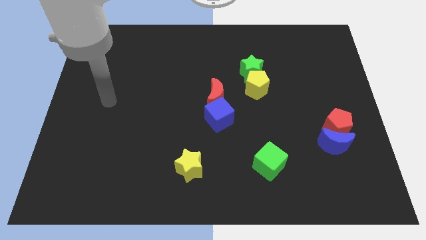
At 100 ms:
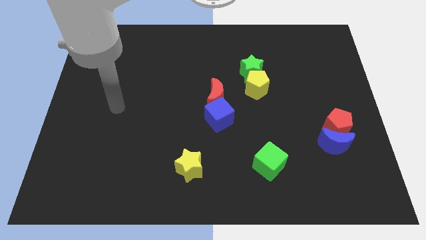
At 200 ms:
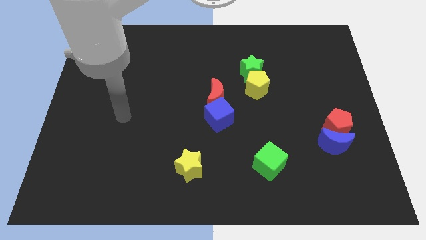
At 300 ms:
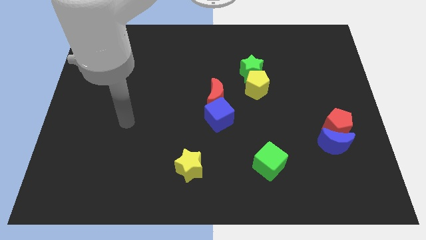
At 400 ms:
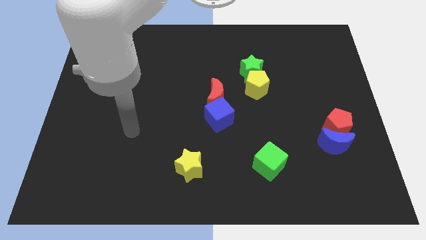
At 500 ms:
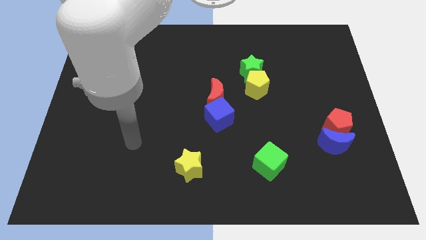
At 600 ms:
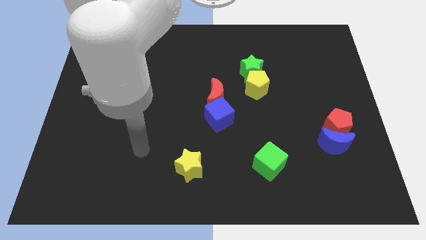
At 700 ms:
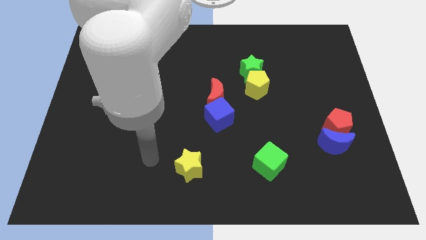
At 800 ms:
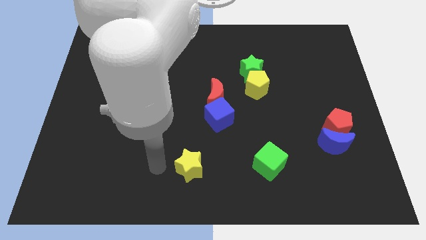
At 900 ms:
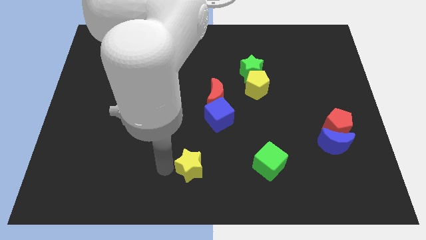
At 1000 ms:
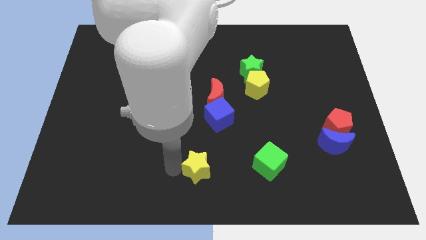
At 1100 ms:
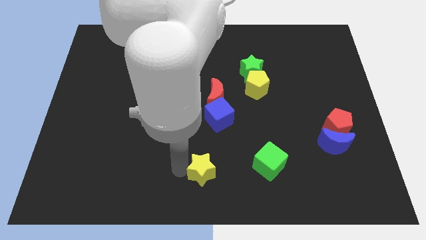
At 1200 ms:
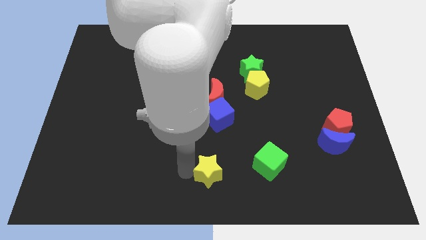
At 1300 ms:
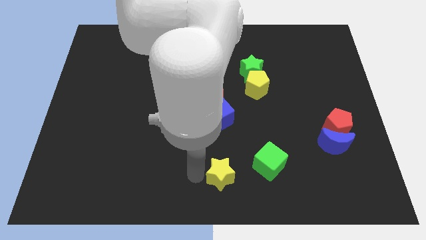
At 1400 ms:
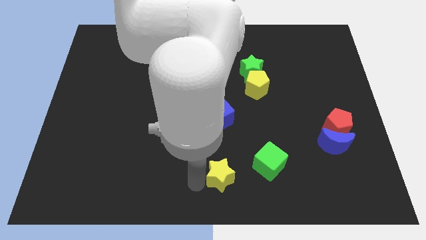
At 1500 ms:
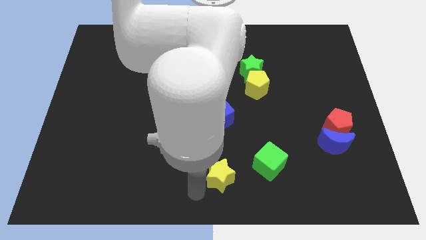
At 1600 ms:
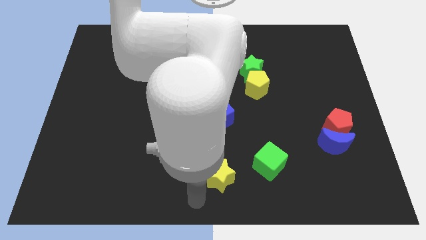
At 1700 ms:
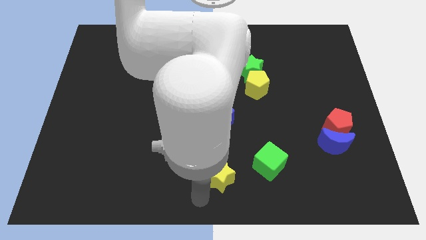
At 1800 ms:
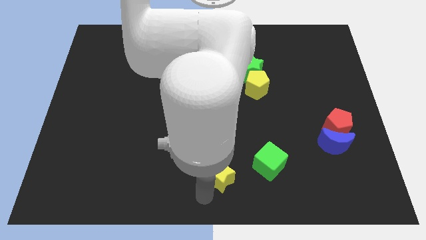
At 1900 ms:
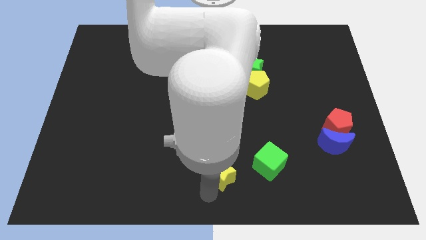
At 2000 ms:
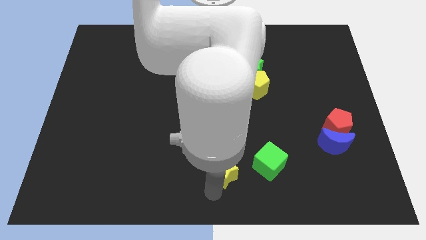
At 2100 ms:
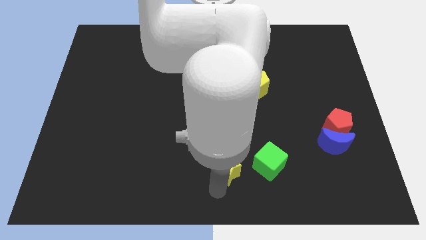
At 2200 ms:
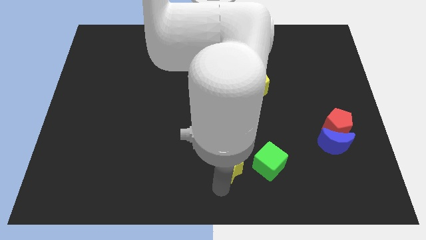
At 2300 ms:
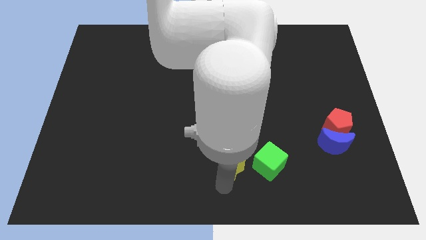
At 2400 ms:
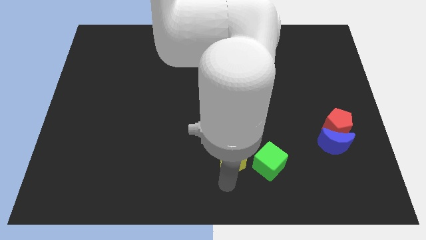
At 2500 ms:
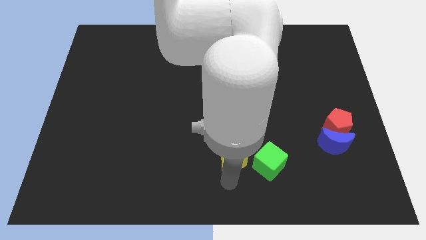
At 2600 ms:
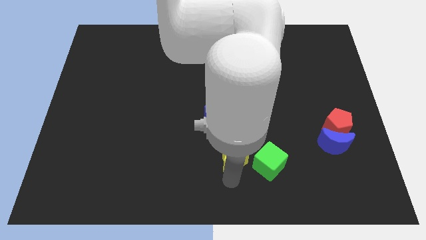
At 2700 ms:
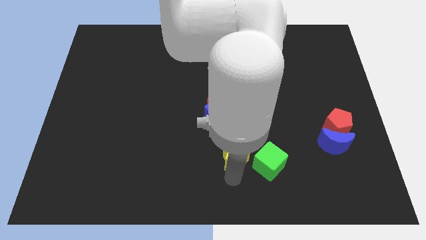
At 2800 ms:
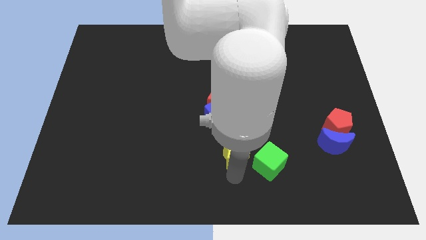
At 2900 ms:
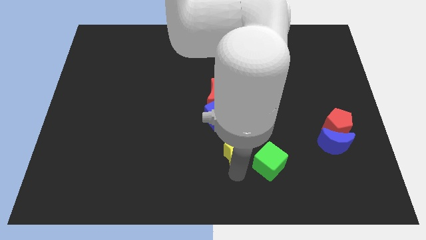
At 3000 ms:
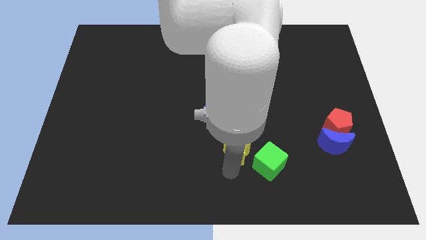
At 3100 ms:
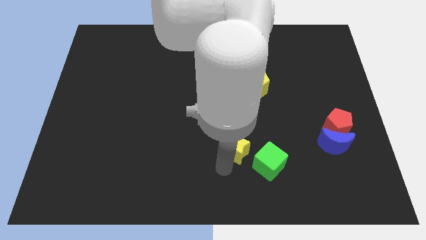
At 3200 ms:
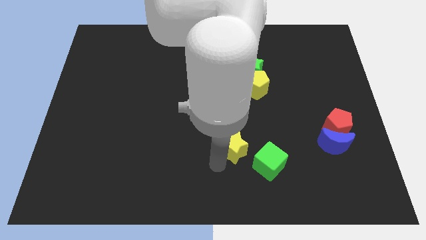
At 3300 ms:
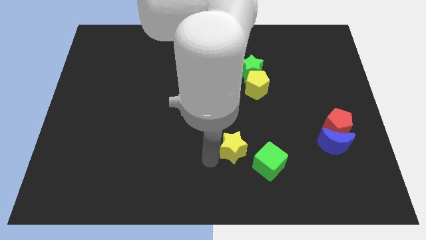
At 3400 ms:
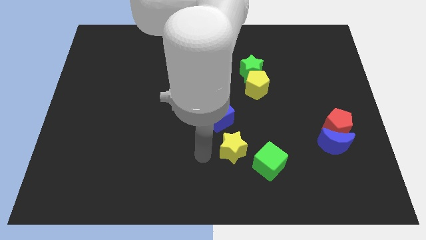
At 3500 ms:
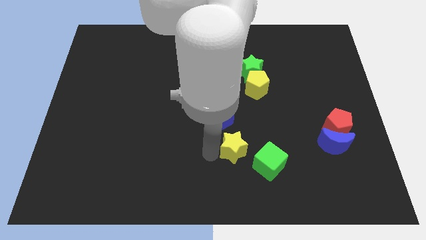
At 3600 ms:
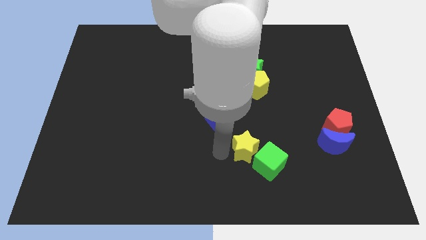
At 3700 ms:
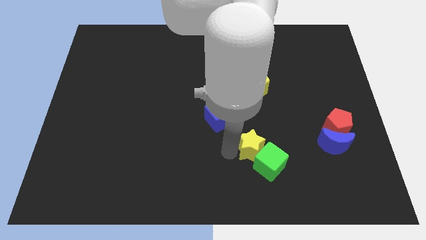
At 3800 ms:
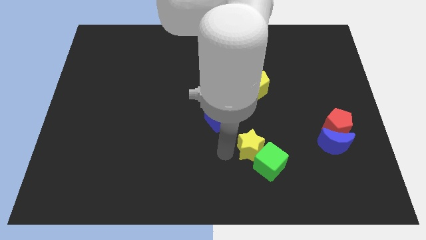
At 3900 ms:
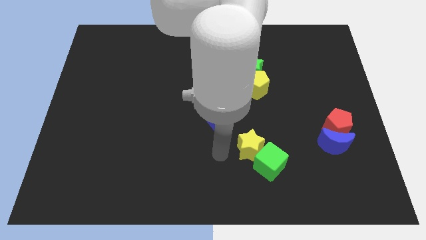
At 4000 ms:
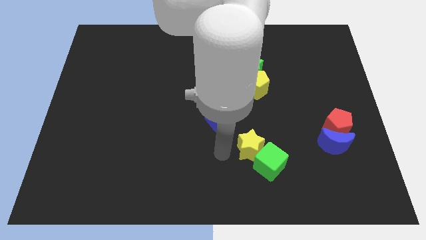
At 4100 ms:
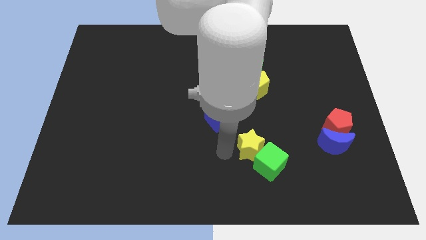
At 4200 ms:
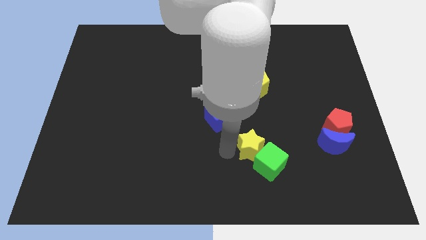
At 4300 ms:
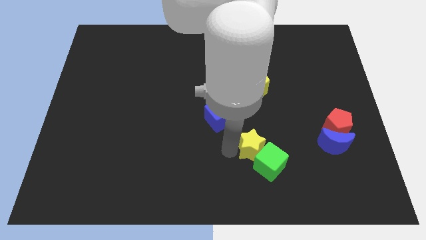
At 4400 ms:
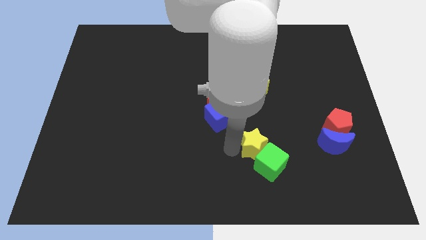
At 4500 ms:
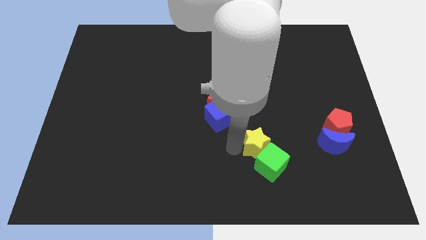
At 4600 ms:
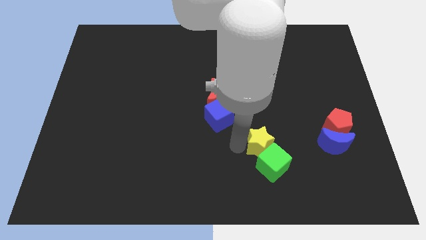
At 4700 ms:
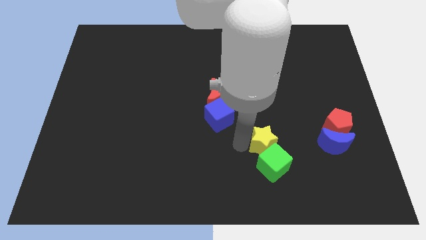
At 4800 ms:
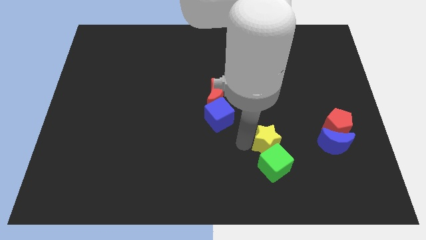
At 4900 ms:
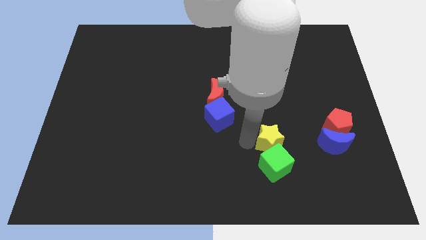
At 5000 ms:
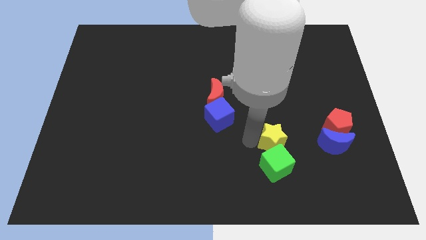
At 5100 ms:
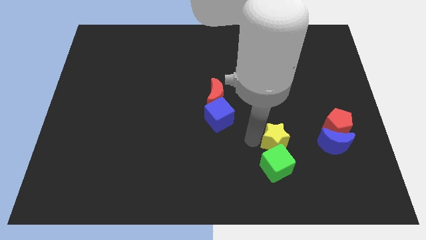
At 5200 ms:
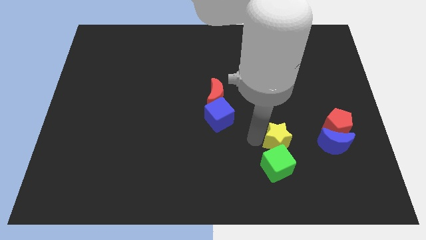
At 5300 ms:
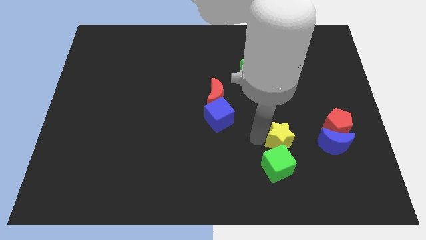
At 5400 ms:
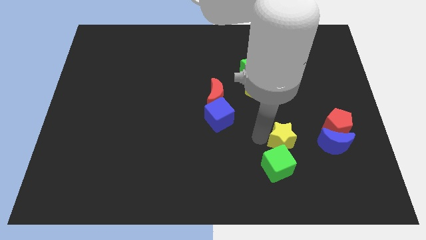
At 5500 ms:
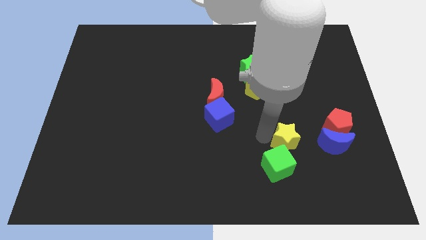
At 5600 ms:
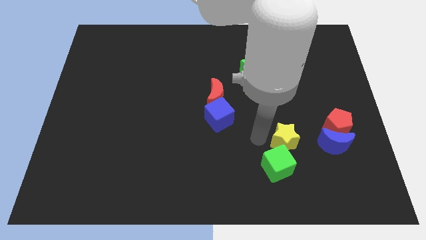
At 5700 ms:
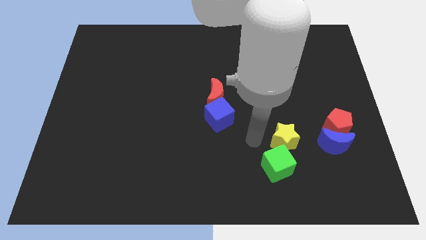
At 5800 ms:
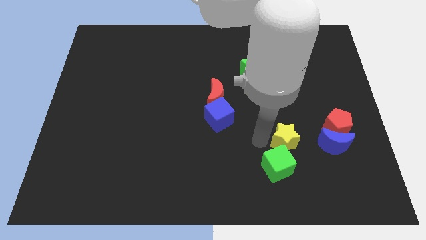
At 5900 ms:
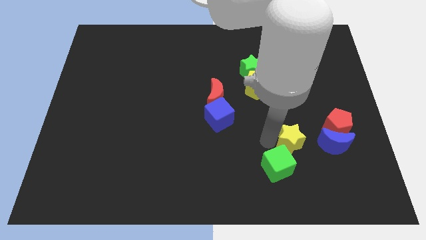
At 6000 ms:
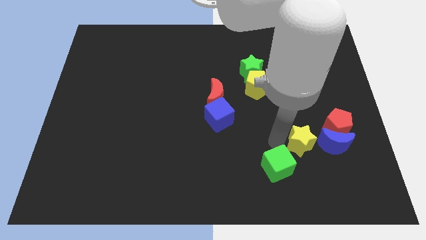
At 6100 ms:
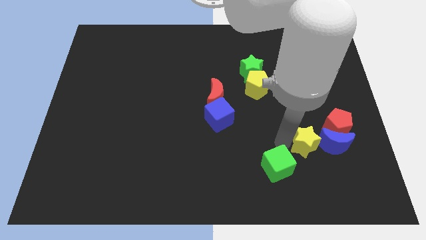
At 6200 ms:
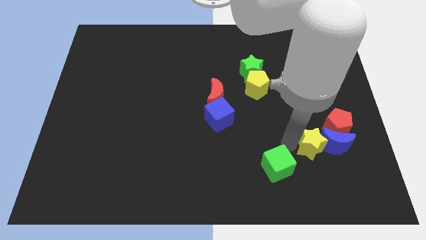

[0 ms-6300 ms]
slide the yellow star to the blue moon

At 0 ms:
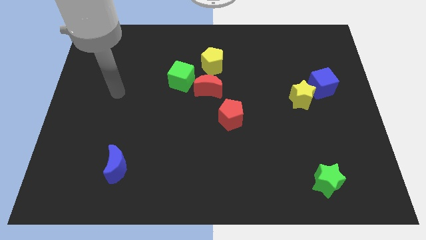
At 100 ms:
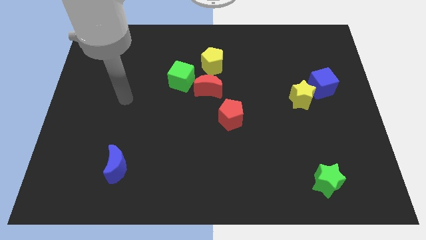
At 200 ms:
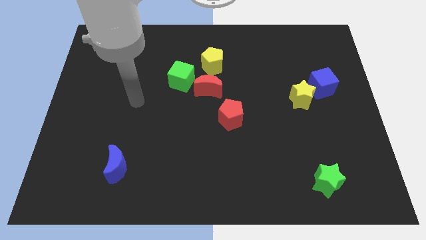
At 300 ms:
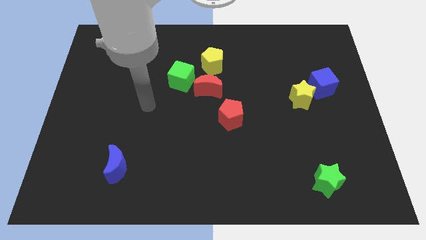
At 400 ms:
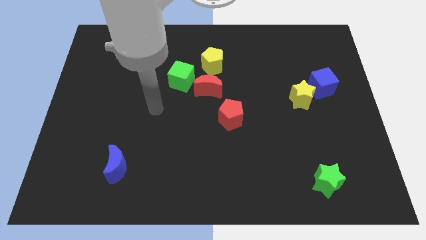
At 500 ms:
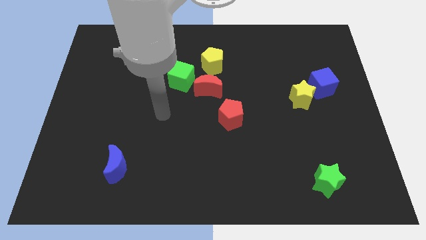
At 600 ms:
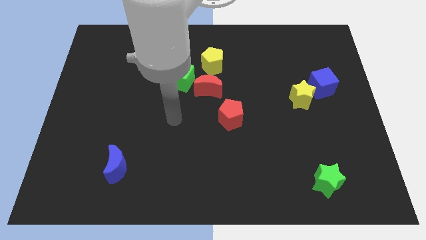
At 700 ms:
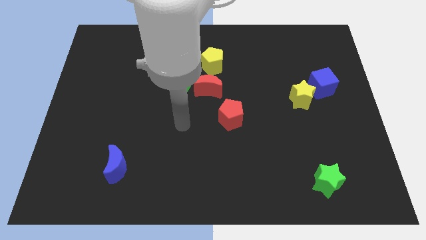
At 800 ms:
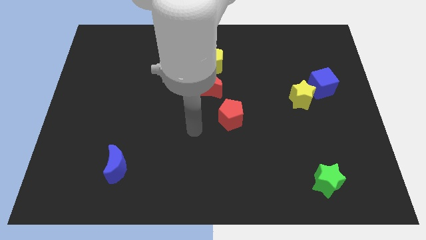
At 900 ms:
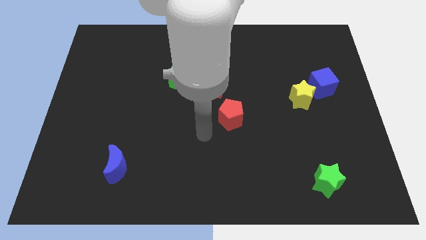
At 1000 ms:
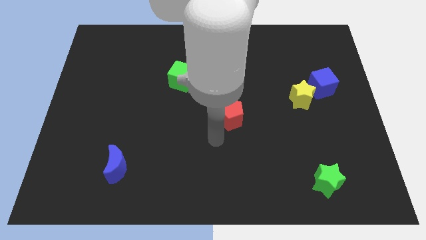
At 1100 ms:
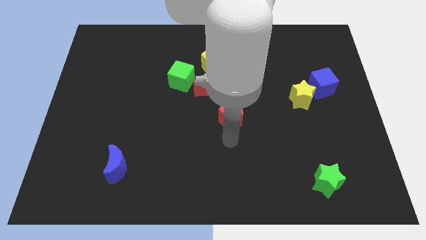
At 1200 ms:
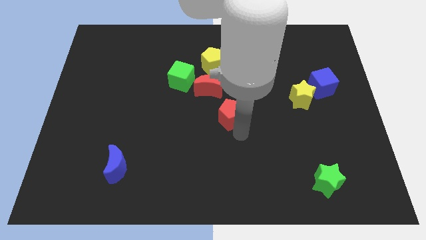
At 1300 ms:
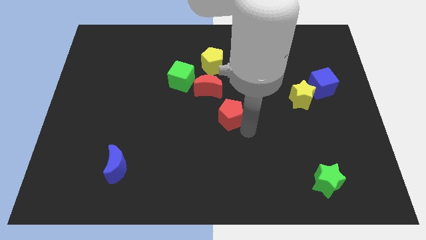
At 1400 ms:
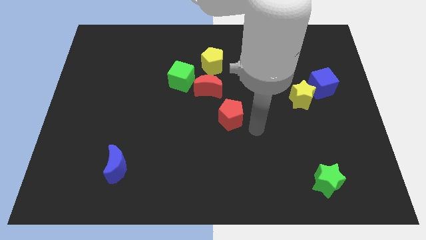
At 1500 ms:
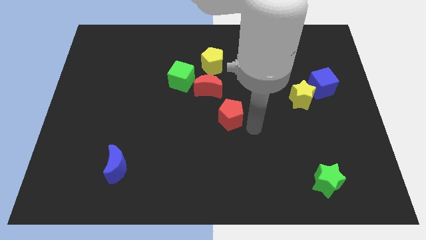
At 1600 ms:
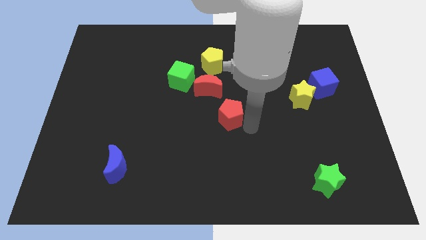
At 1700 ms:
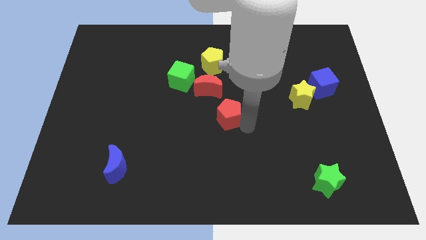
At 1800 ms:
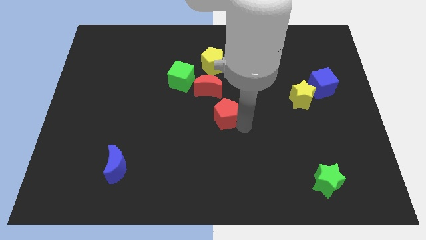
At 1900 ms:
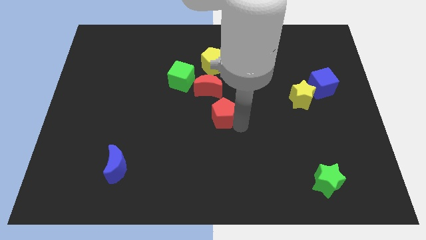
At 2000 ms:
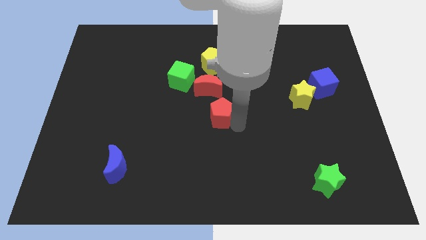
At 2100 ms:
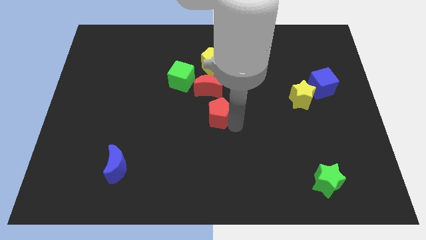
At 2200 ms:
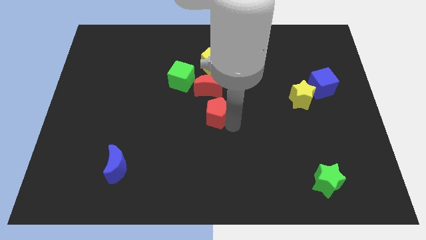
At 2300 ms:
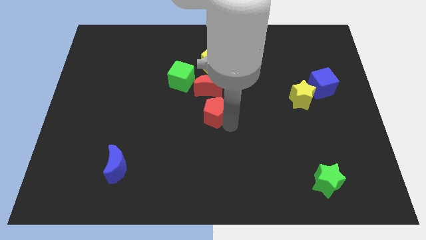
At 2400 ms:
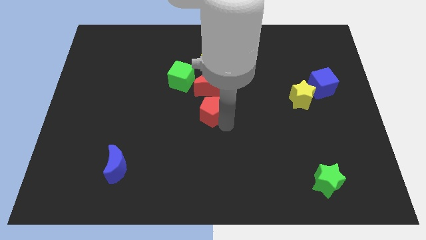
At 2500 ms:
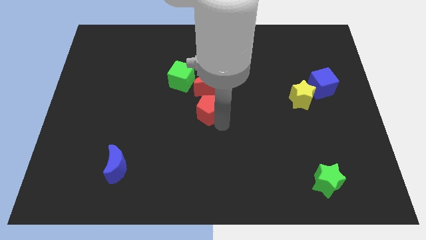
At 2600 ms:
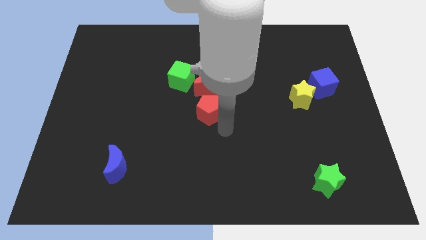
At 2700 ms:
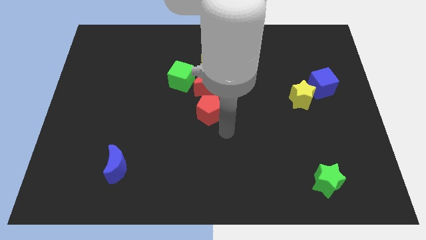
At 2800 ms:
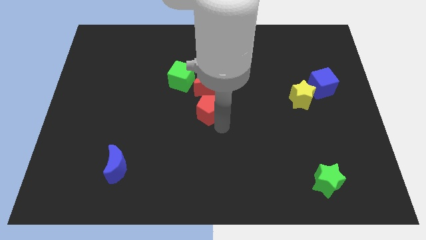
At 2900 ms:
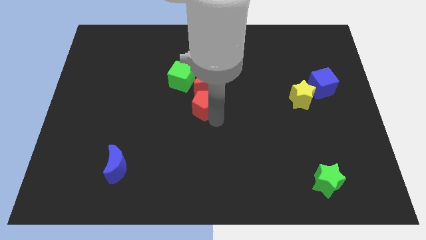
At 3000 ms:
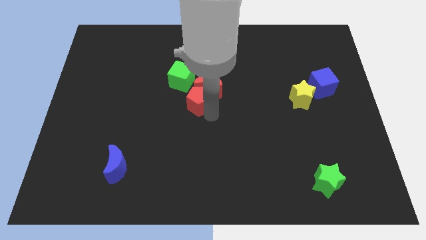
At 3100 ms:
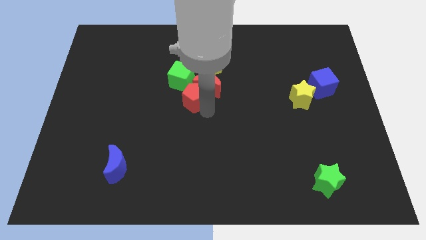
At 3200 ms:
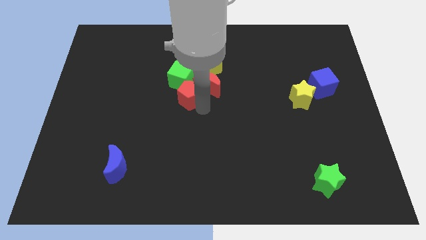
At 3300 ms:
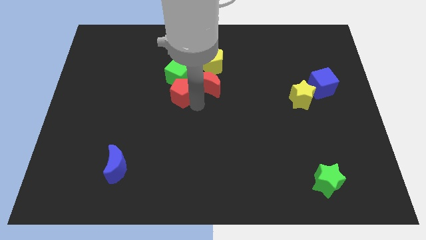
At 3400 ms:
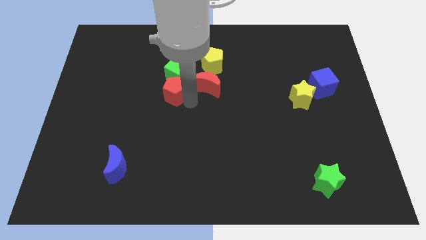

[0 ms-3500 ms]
push the red pentagon towards the green cube
